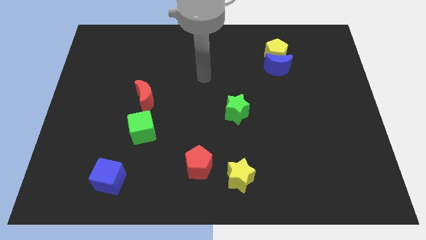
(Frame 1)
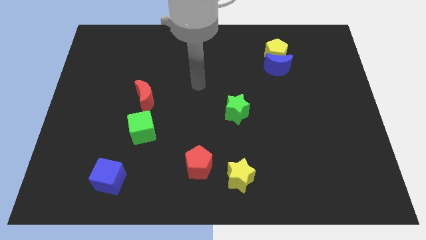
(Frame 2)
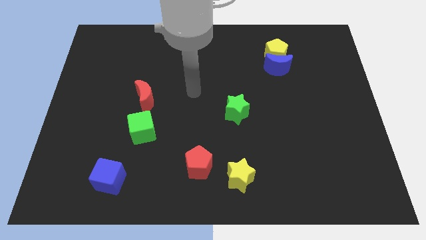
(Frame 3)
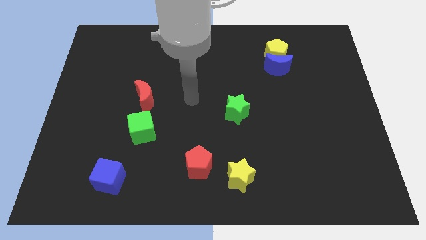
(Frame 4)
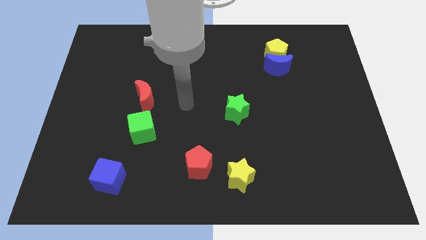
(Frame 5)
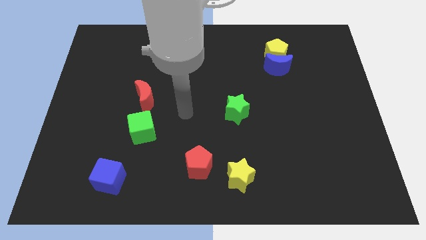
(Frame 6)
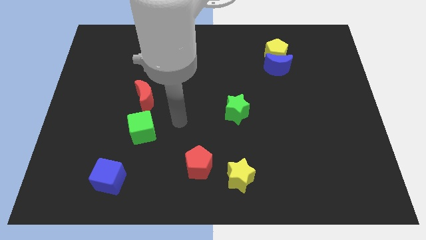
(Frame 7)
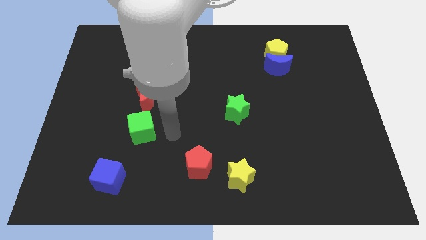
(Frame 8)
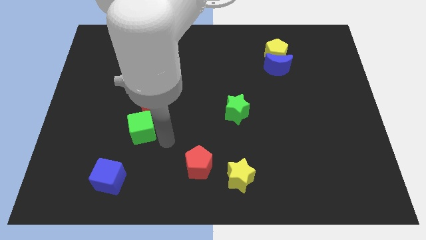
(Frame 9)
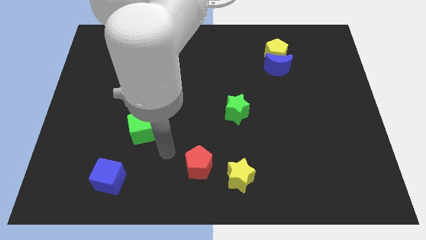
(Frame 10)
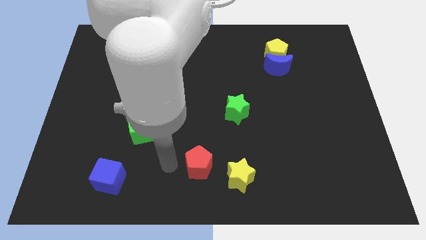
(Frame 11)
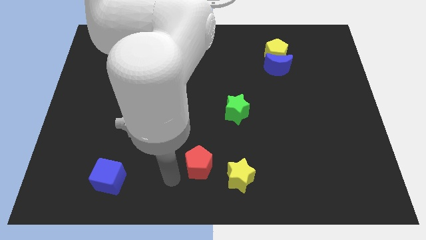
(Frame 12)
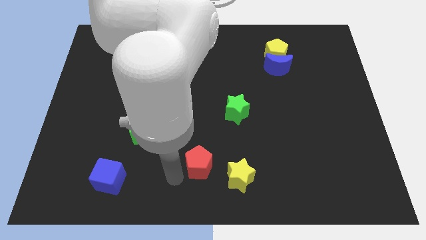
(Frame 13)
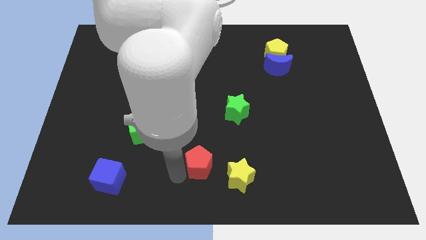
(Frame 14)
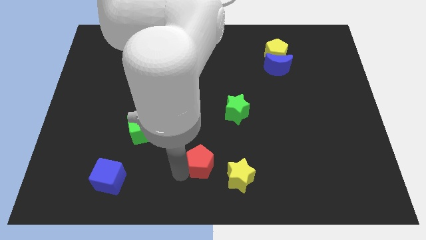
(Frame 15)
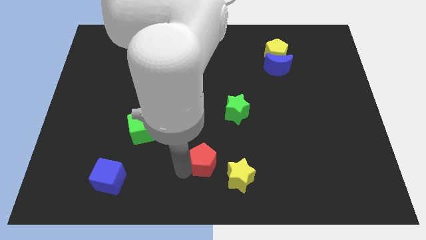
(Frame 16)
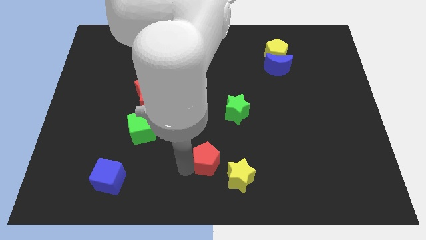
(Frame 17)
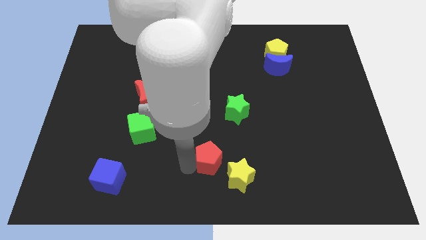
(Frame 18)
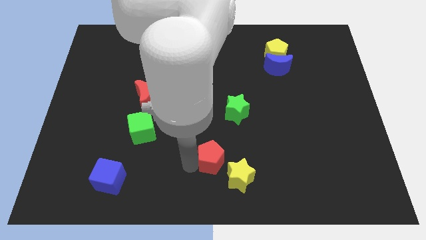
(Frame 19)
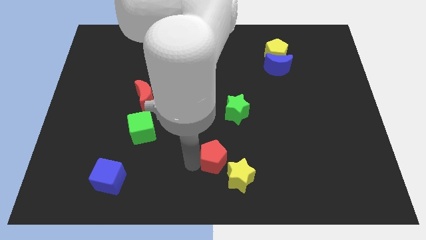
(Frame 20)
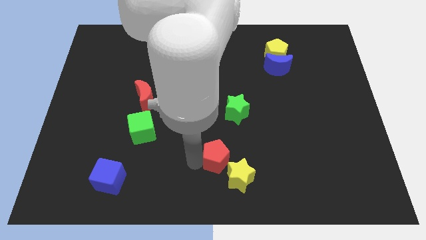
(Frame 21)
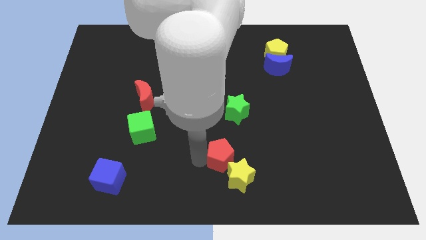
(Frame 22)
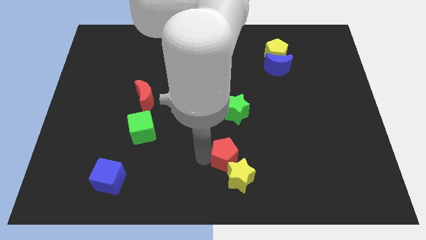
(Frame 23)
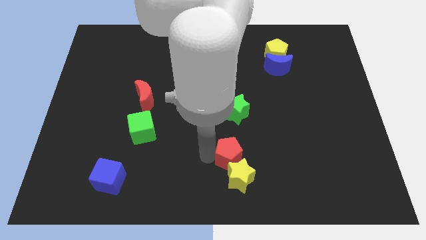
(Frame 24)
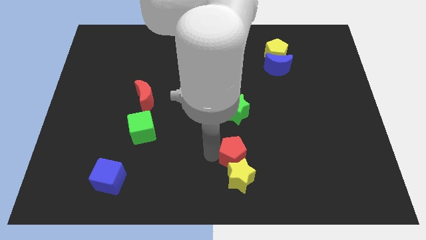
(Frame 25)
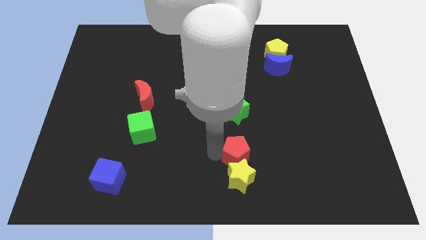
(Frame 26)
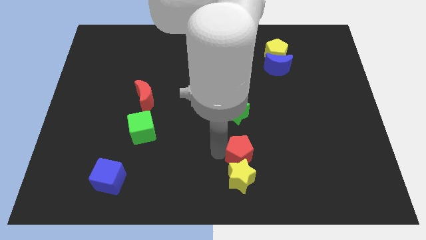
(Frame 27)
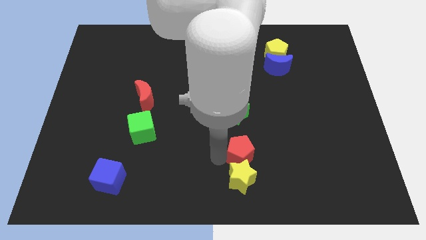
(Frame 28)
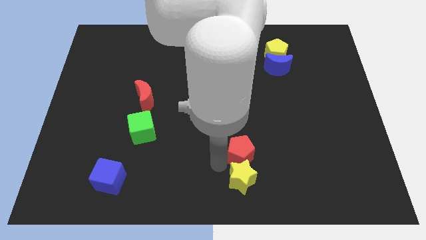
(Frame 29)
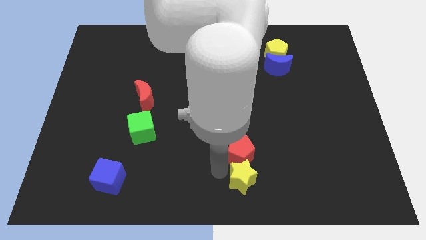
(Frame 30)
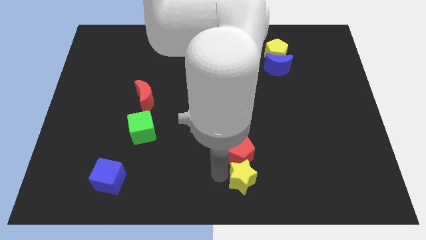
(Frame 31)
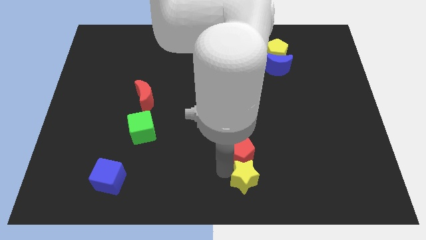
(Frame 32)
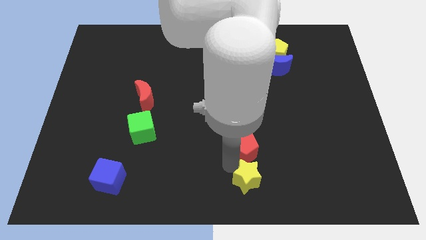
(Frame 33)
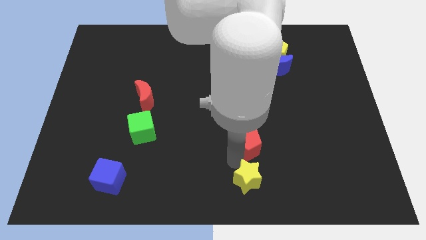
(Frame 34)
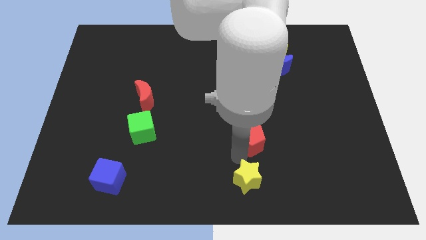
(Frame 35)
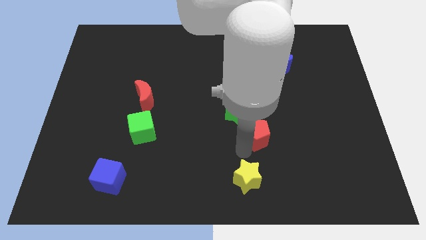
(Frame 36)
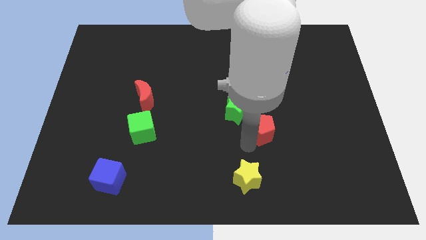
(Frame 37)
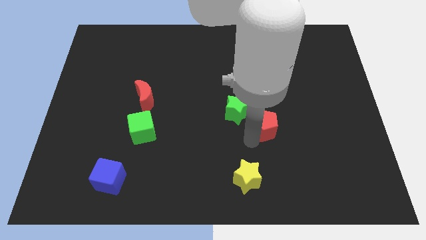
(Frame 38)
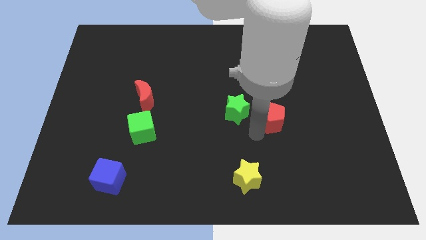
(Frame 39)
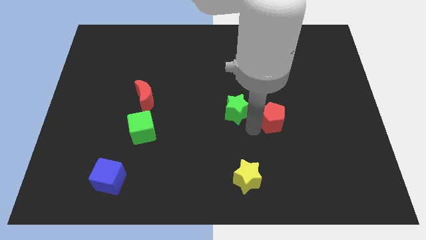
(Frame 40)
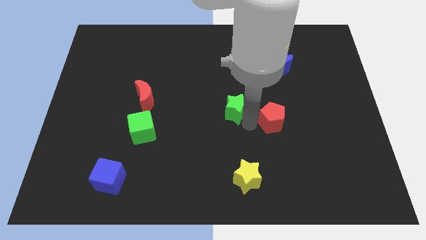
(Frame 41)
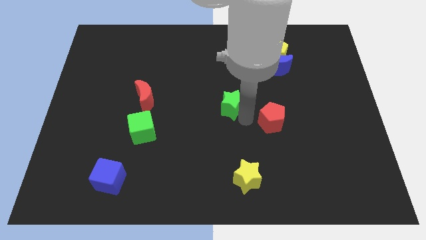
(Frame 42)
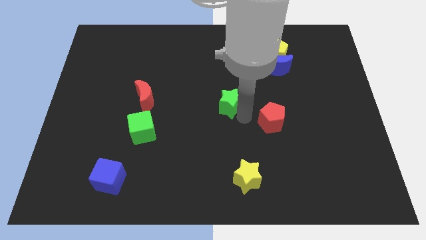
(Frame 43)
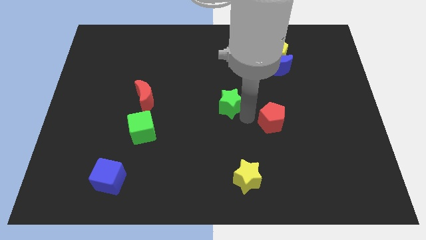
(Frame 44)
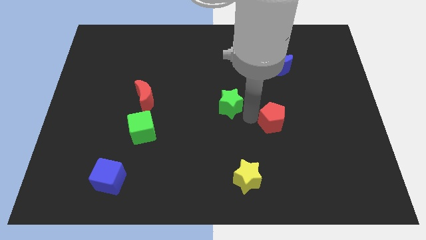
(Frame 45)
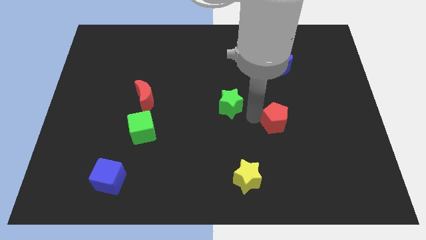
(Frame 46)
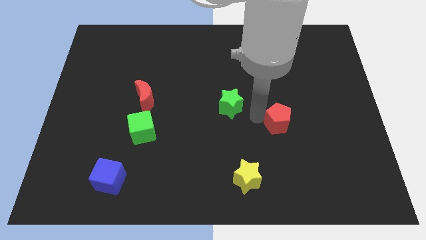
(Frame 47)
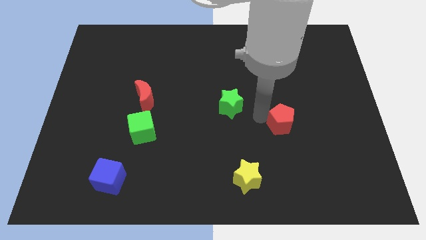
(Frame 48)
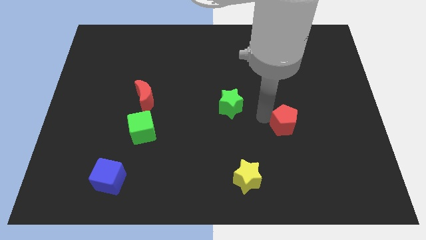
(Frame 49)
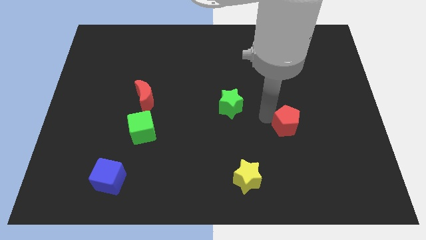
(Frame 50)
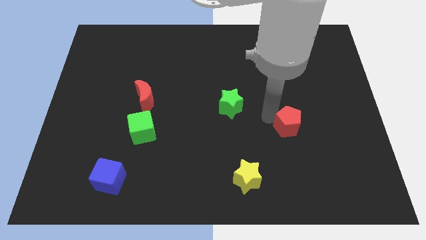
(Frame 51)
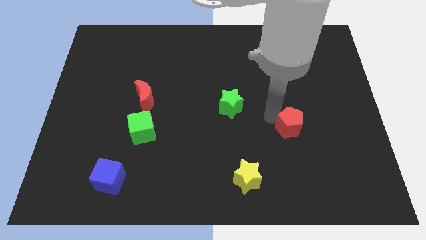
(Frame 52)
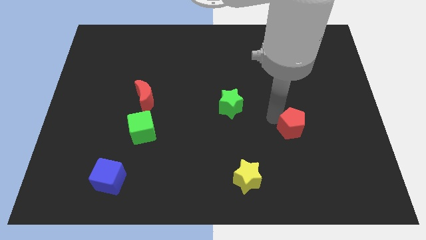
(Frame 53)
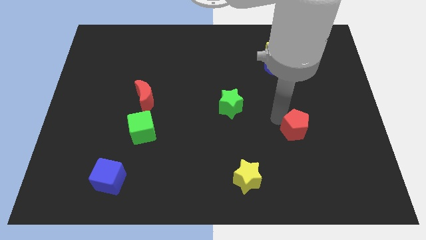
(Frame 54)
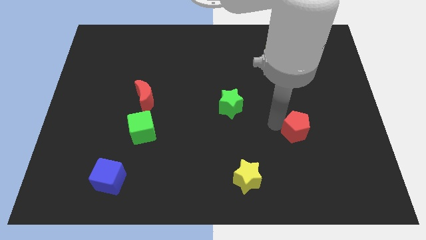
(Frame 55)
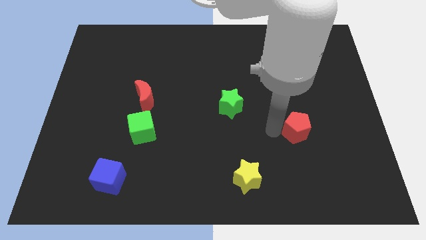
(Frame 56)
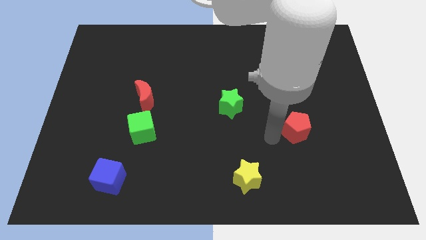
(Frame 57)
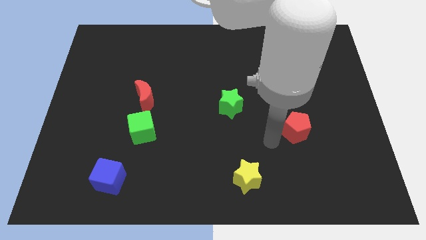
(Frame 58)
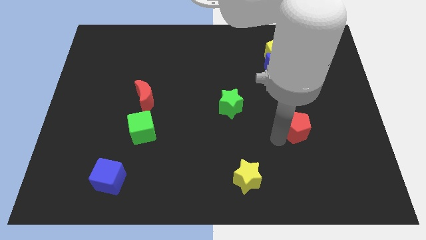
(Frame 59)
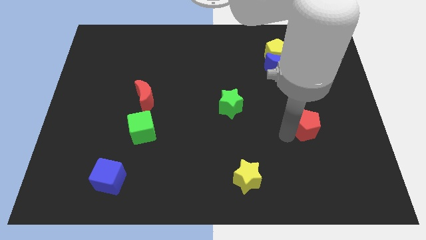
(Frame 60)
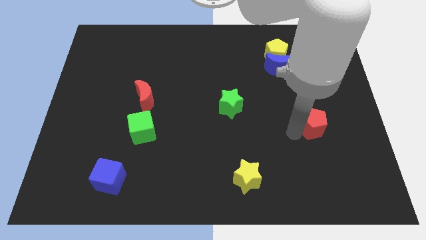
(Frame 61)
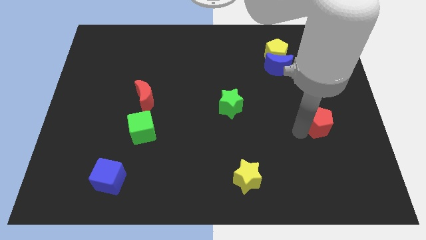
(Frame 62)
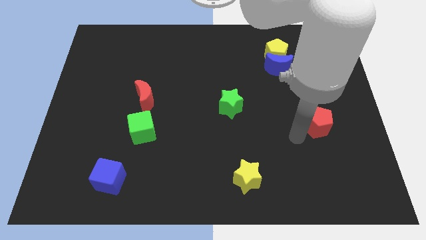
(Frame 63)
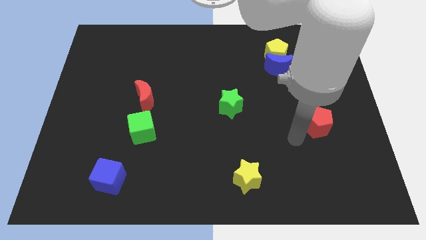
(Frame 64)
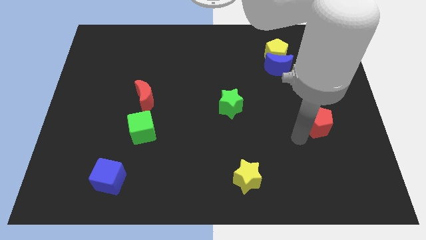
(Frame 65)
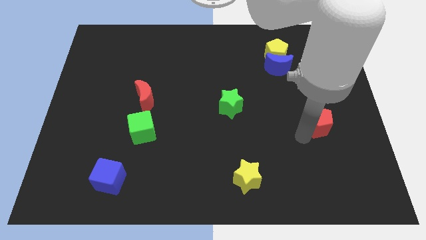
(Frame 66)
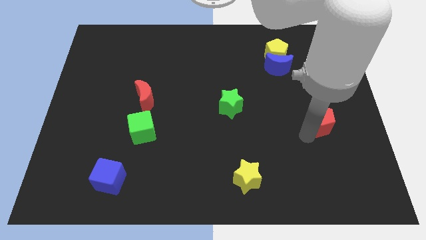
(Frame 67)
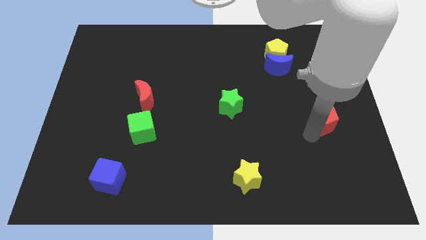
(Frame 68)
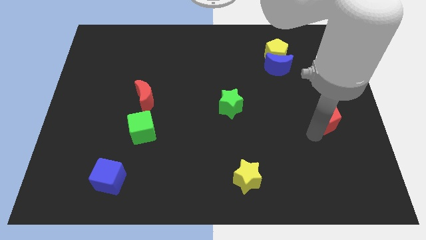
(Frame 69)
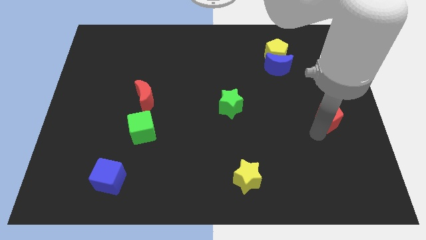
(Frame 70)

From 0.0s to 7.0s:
push the red pentagon to the right side of the board
